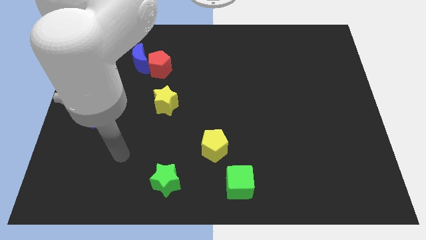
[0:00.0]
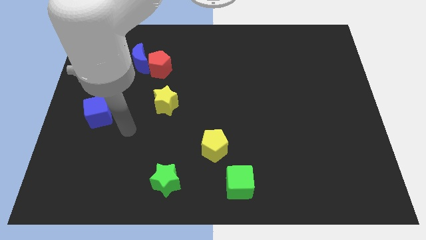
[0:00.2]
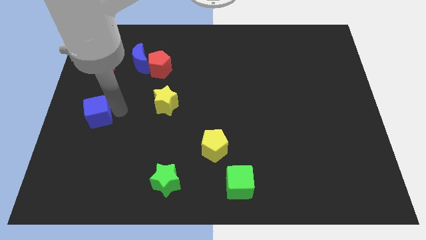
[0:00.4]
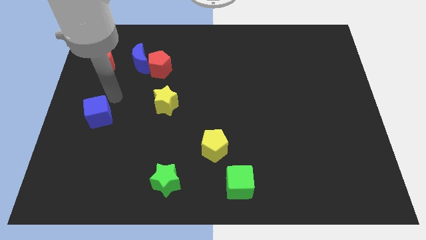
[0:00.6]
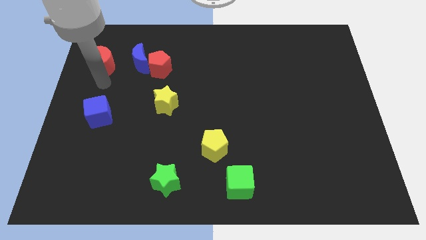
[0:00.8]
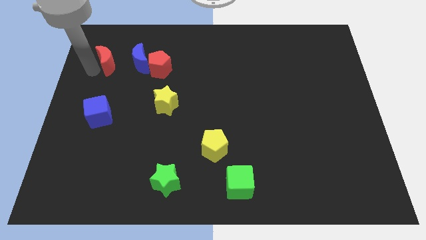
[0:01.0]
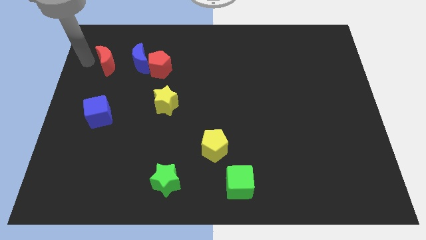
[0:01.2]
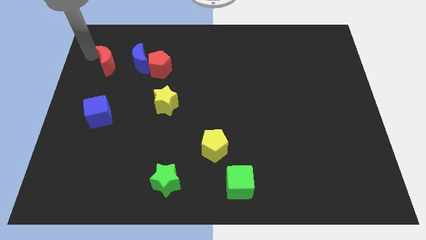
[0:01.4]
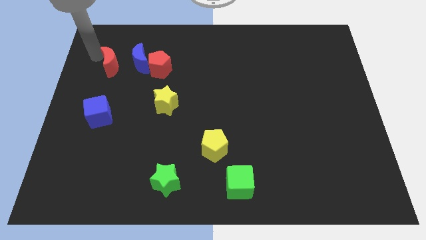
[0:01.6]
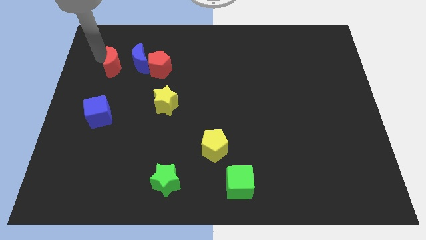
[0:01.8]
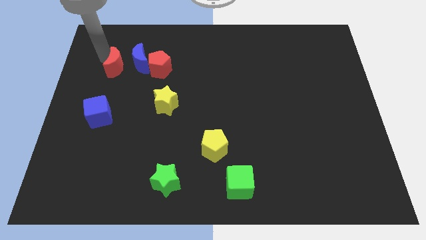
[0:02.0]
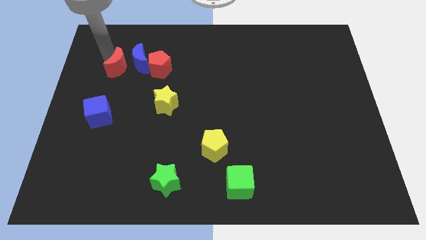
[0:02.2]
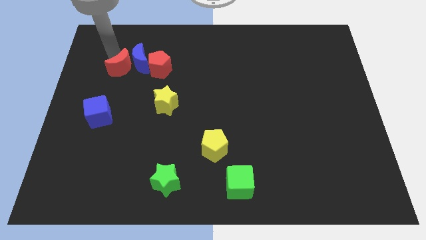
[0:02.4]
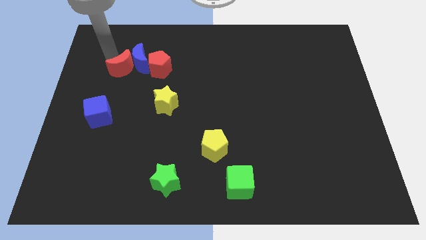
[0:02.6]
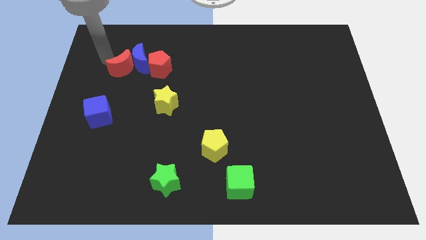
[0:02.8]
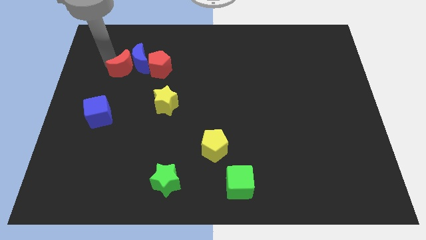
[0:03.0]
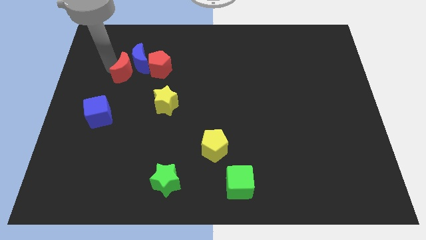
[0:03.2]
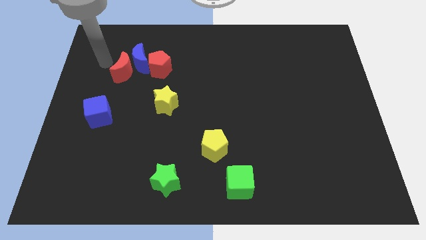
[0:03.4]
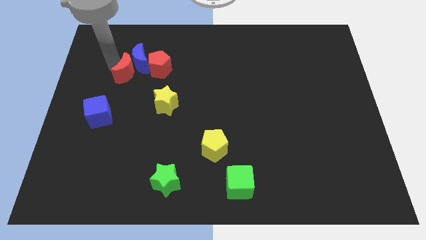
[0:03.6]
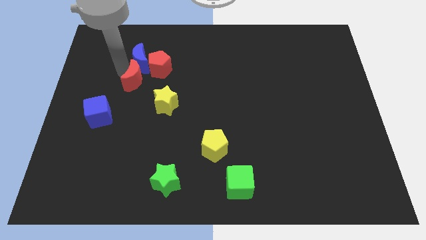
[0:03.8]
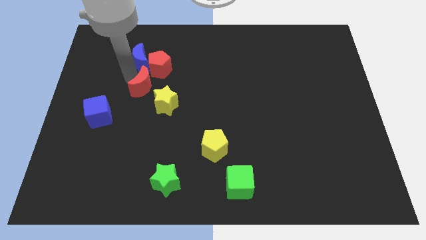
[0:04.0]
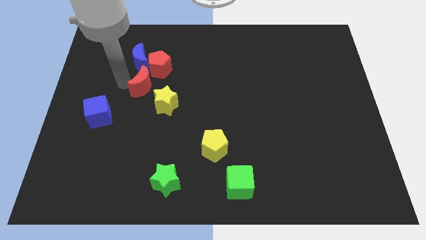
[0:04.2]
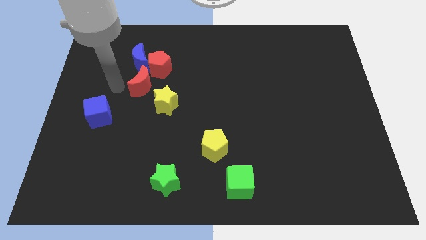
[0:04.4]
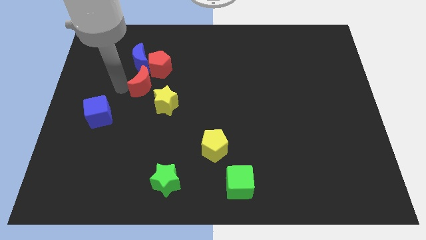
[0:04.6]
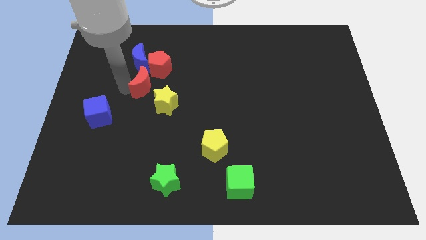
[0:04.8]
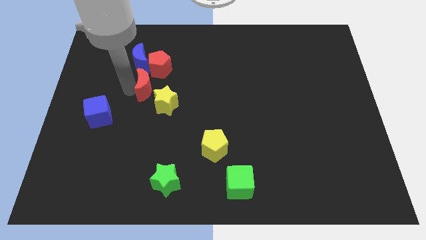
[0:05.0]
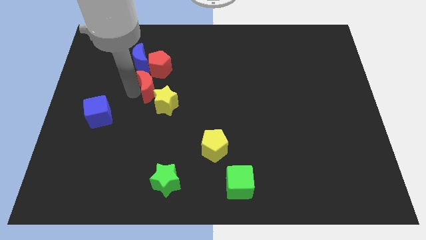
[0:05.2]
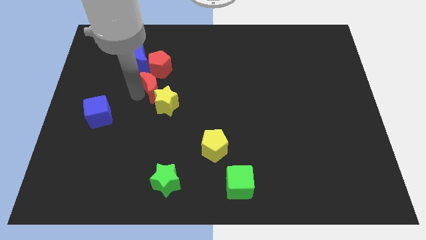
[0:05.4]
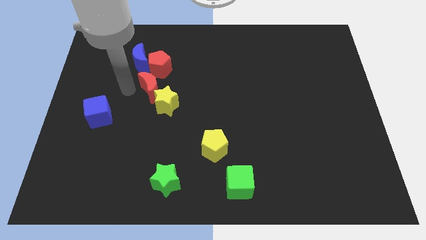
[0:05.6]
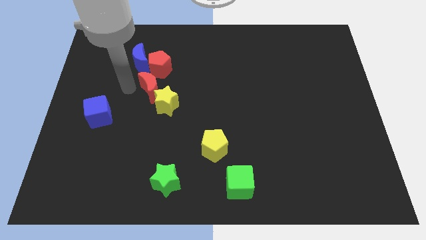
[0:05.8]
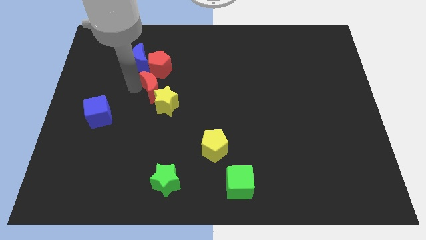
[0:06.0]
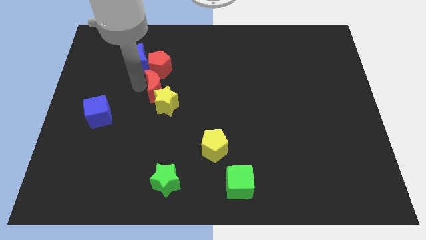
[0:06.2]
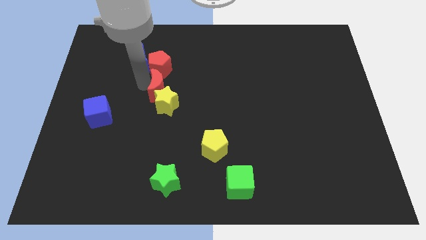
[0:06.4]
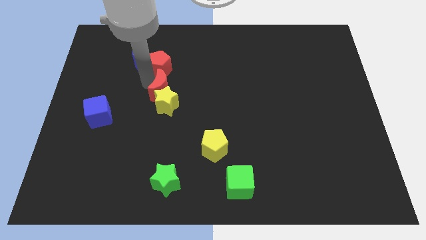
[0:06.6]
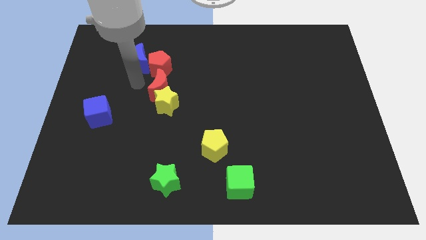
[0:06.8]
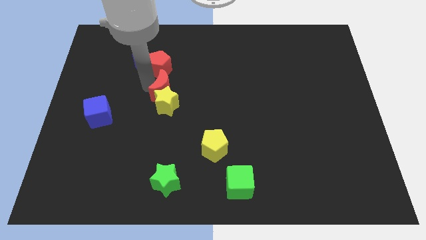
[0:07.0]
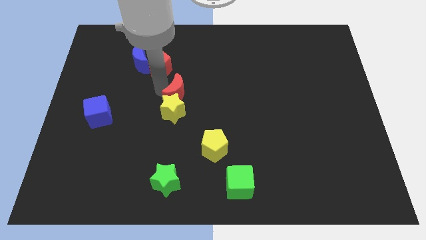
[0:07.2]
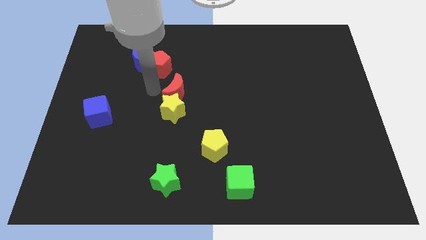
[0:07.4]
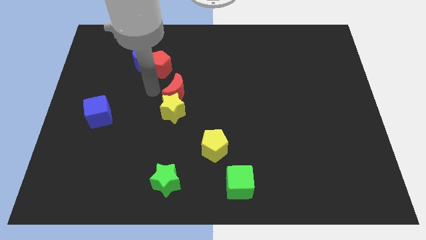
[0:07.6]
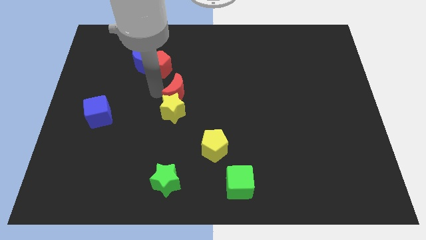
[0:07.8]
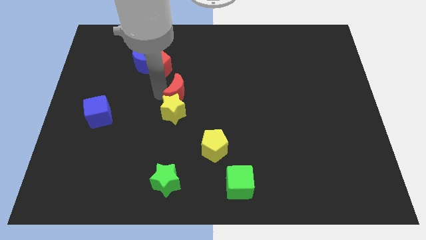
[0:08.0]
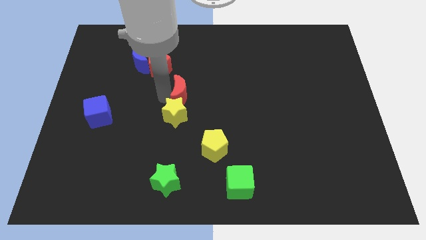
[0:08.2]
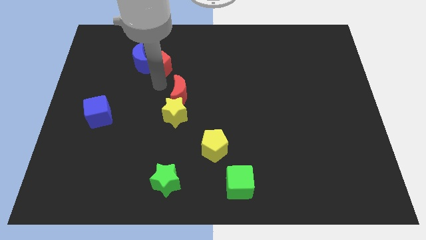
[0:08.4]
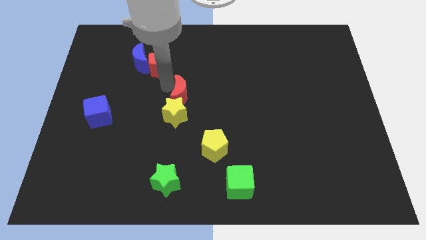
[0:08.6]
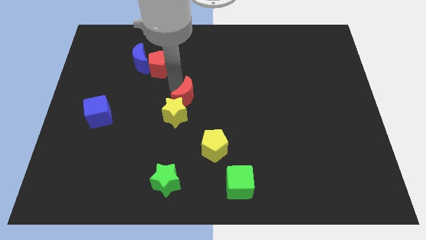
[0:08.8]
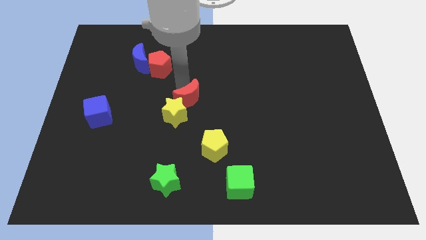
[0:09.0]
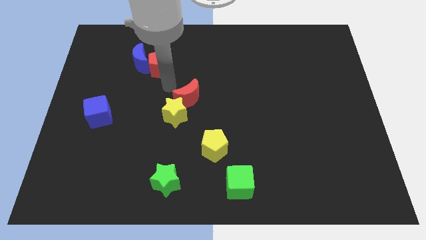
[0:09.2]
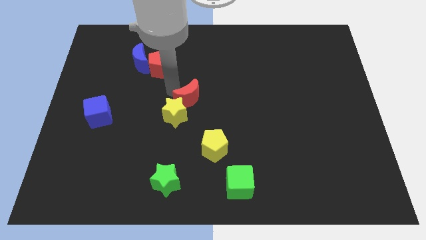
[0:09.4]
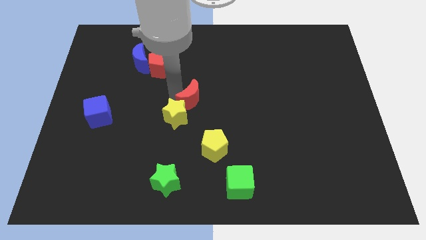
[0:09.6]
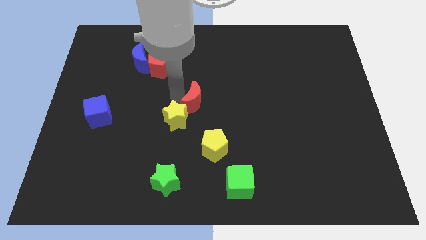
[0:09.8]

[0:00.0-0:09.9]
move the red moon to the right of the yellow star

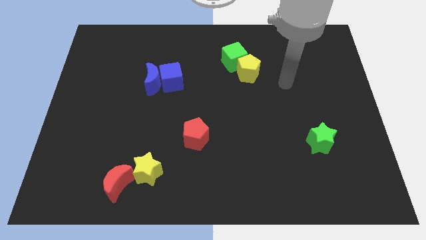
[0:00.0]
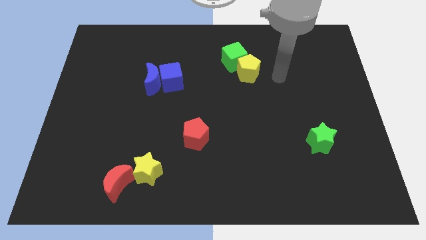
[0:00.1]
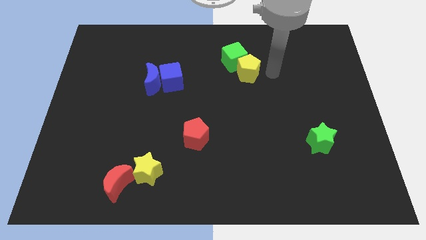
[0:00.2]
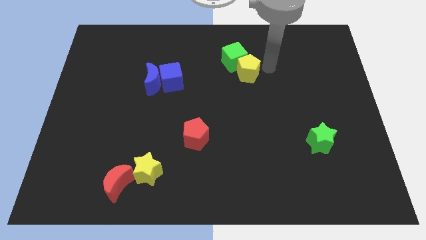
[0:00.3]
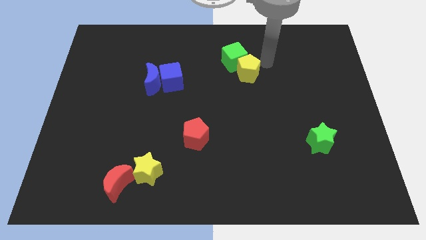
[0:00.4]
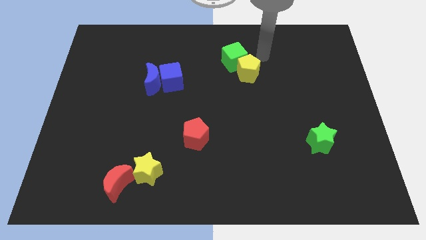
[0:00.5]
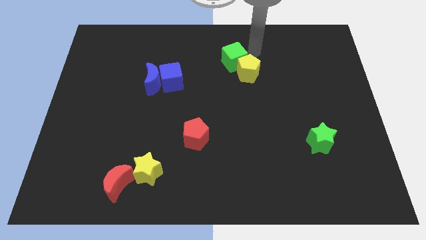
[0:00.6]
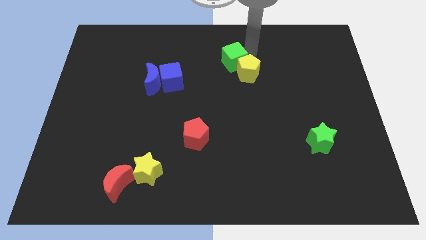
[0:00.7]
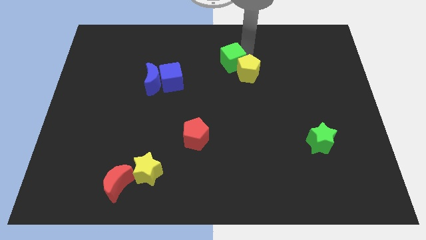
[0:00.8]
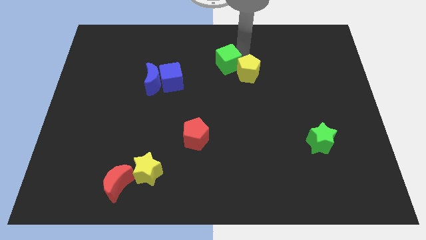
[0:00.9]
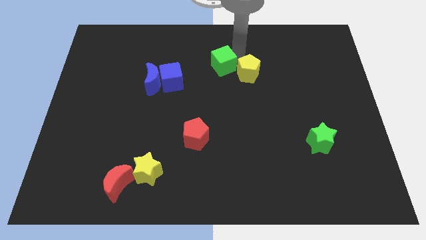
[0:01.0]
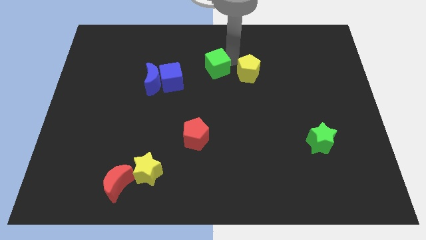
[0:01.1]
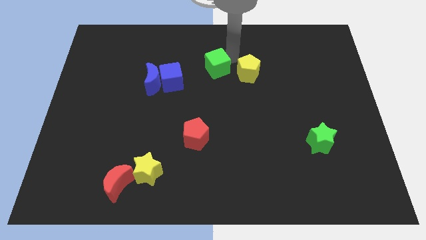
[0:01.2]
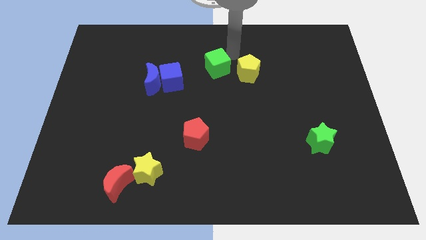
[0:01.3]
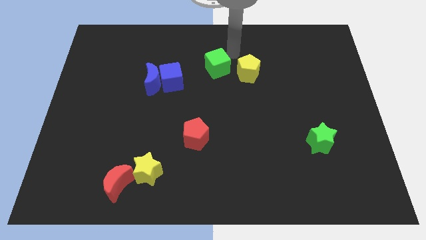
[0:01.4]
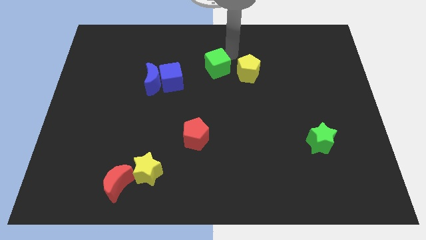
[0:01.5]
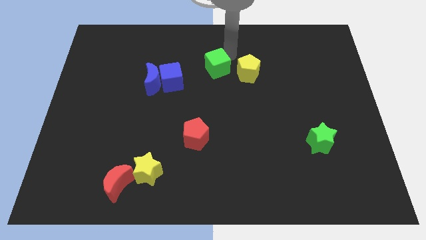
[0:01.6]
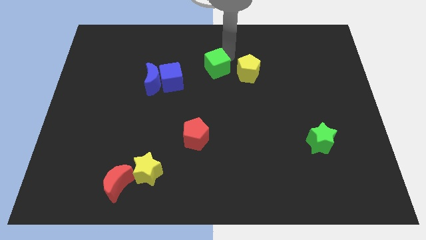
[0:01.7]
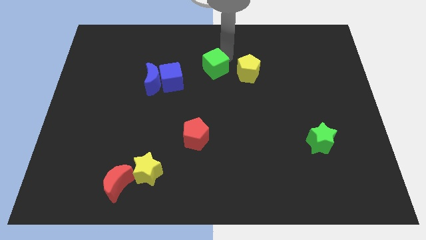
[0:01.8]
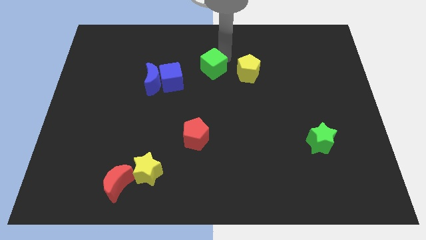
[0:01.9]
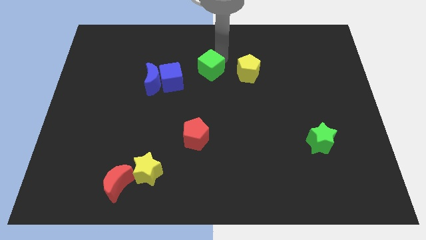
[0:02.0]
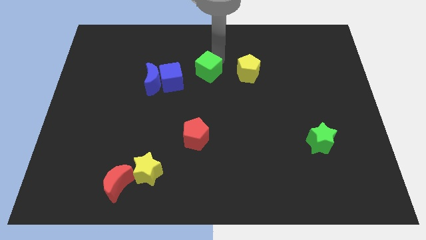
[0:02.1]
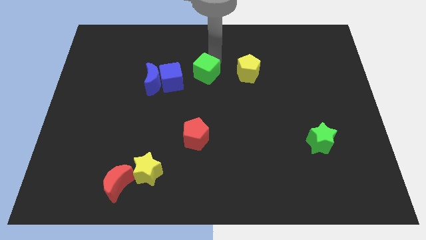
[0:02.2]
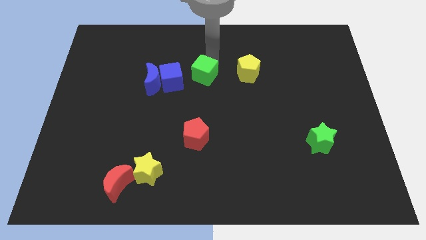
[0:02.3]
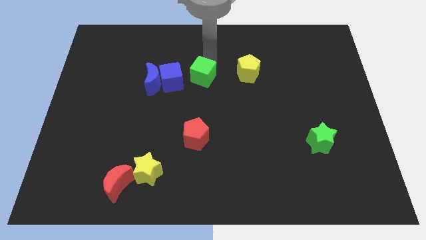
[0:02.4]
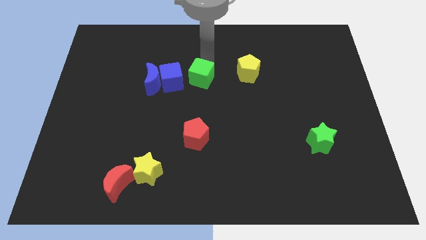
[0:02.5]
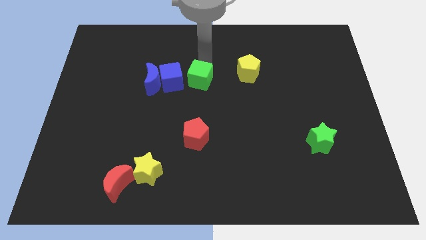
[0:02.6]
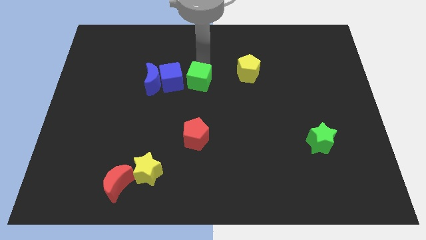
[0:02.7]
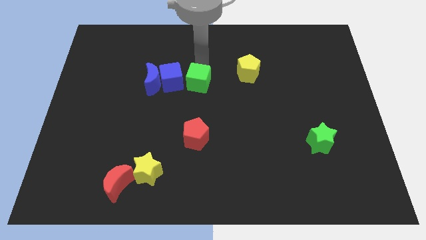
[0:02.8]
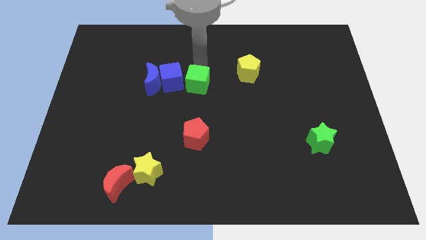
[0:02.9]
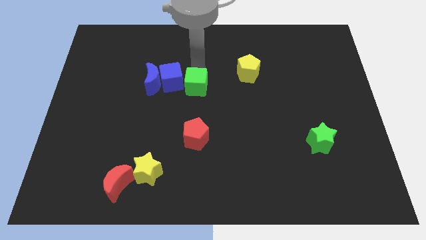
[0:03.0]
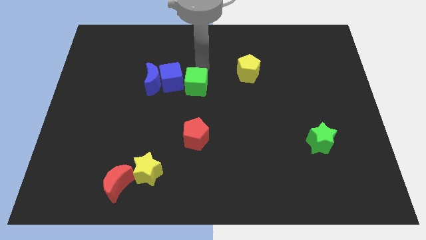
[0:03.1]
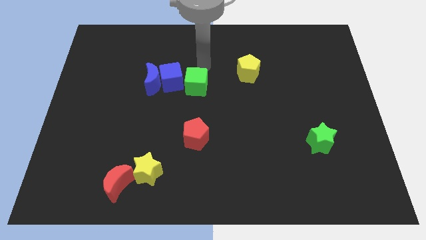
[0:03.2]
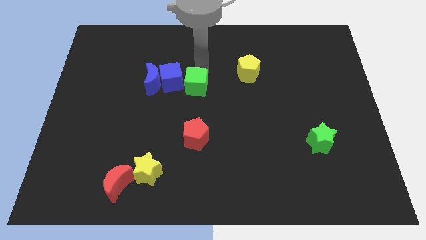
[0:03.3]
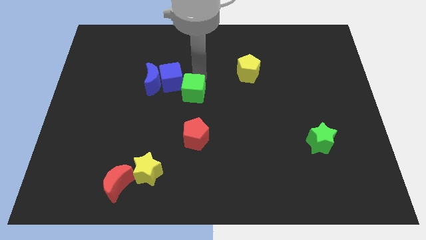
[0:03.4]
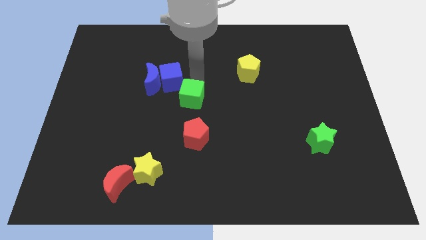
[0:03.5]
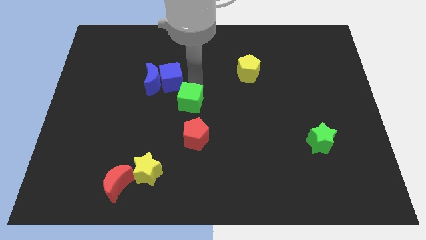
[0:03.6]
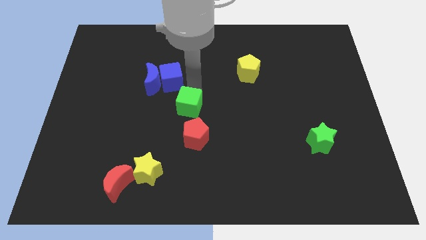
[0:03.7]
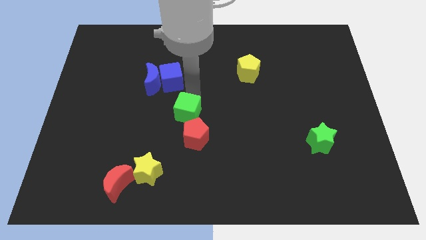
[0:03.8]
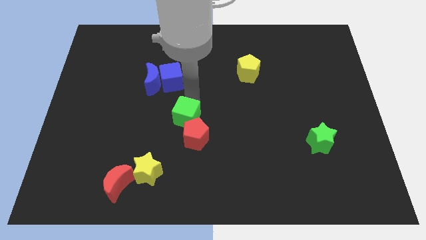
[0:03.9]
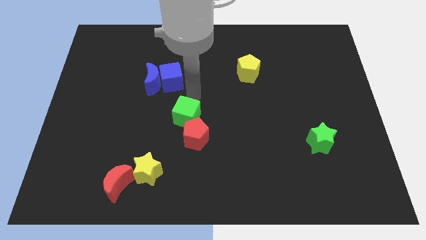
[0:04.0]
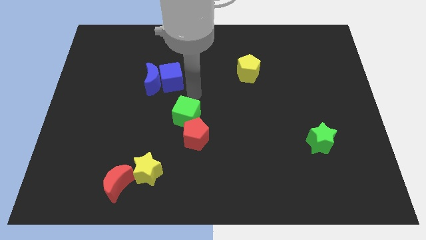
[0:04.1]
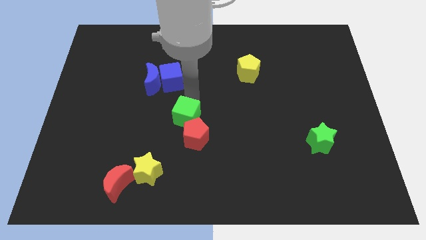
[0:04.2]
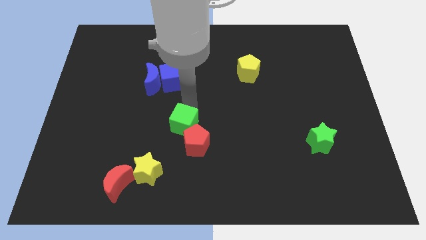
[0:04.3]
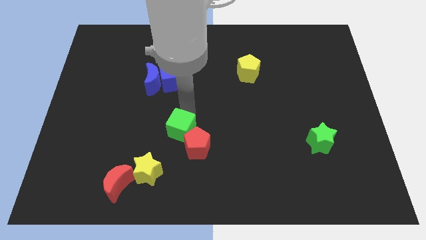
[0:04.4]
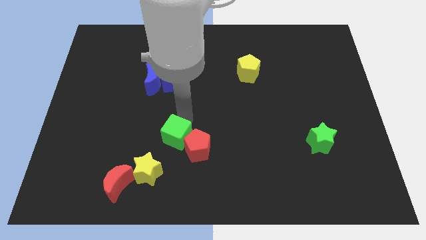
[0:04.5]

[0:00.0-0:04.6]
put the green cube diagonally up and to the right of the yellow star
